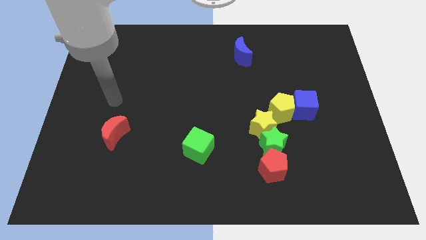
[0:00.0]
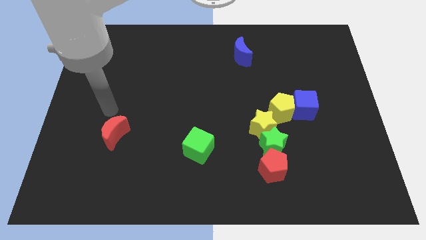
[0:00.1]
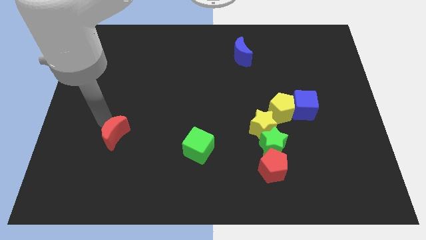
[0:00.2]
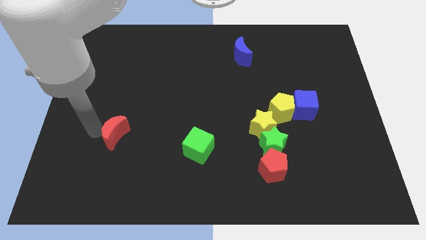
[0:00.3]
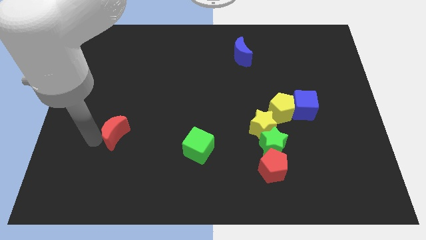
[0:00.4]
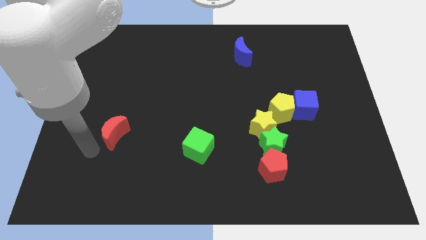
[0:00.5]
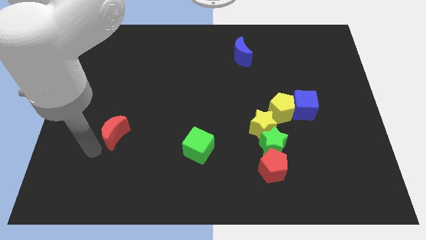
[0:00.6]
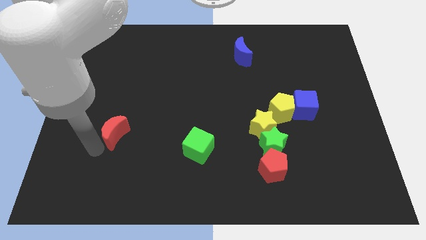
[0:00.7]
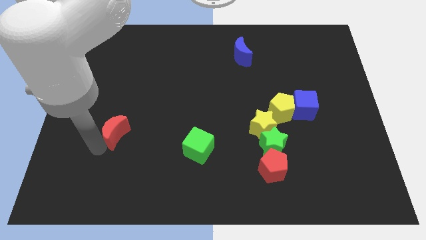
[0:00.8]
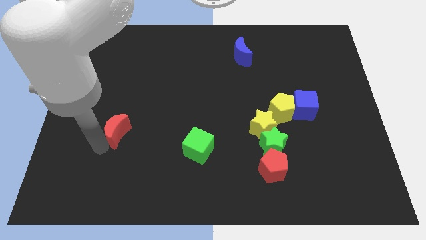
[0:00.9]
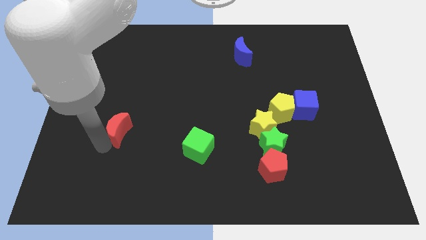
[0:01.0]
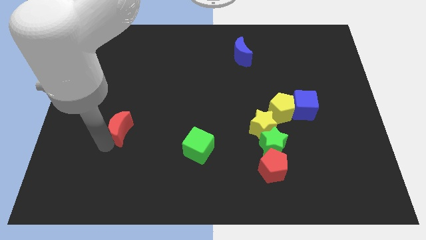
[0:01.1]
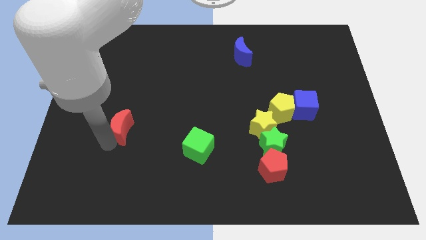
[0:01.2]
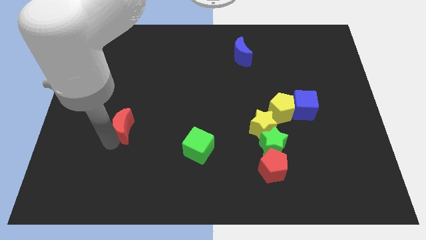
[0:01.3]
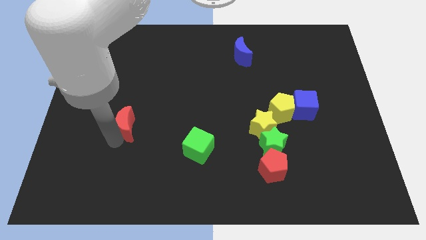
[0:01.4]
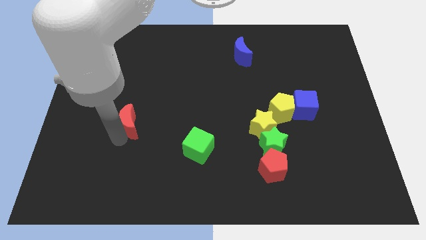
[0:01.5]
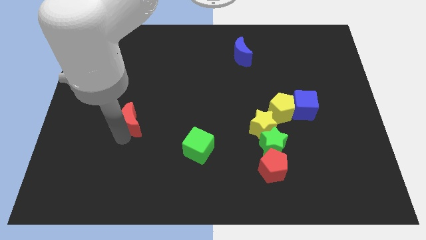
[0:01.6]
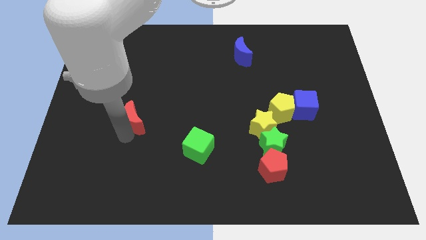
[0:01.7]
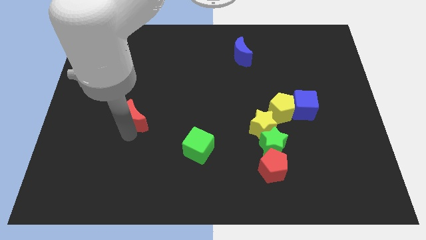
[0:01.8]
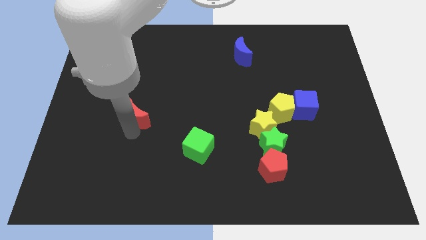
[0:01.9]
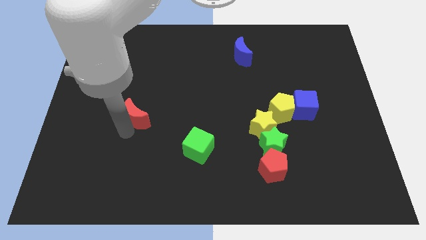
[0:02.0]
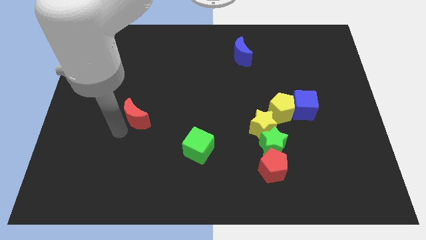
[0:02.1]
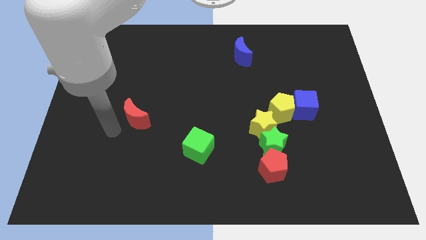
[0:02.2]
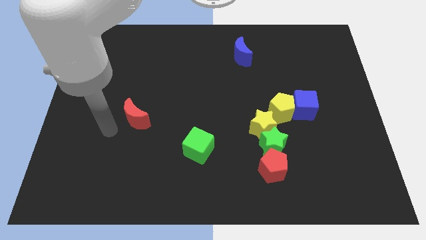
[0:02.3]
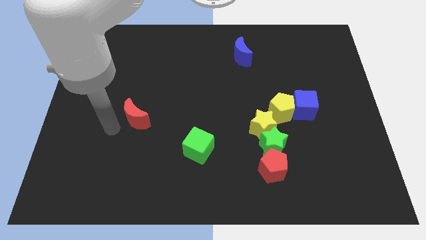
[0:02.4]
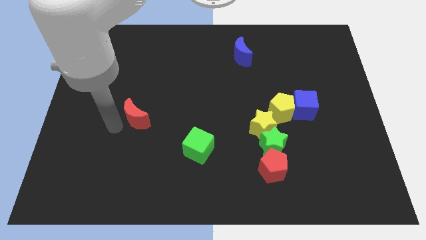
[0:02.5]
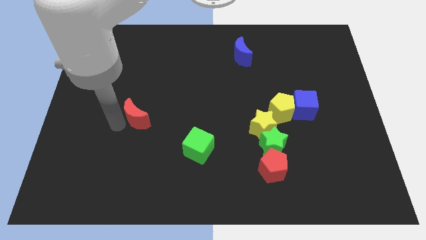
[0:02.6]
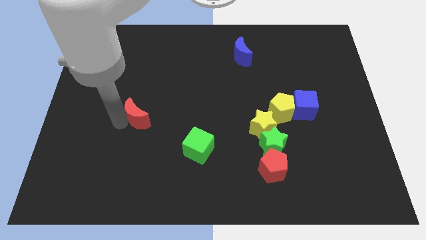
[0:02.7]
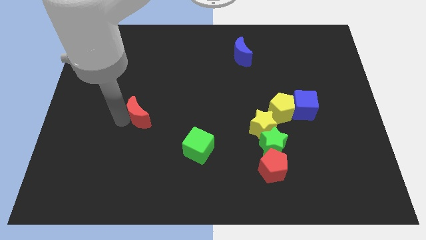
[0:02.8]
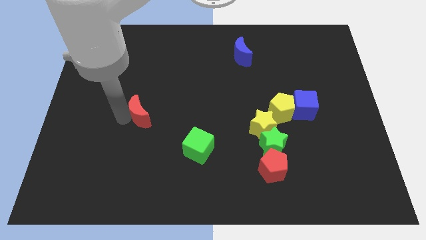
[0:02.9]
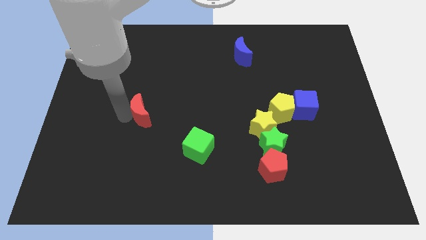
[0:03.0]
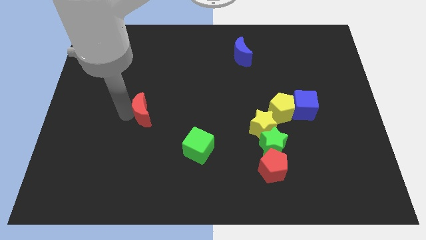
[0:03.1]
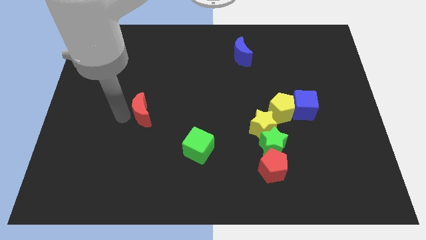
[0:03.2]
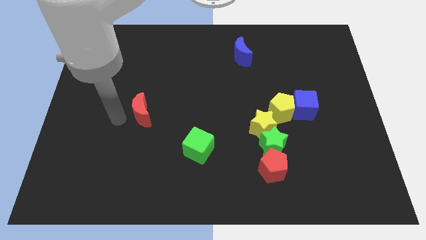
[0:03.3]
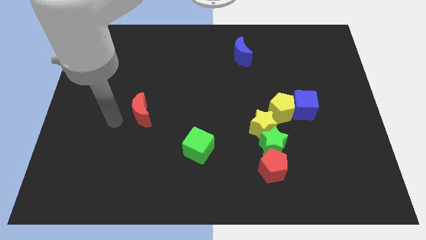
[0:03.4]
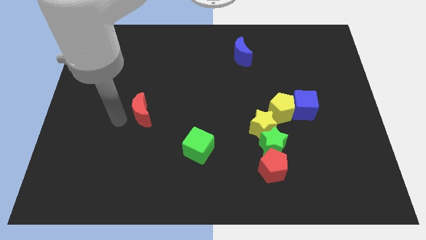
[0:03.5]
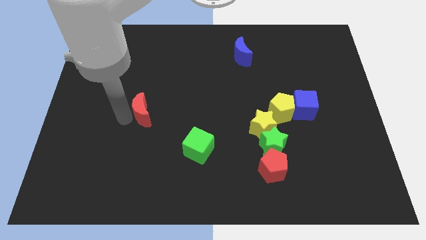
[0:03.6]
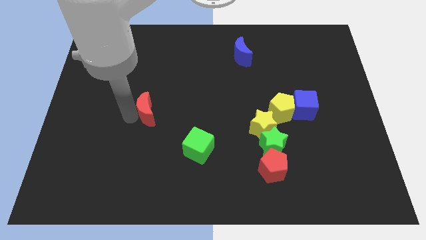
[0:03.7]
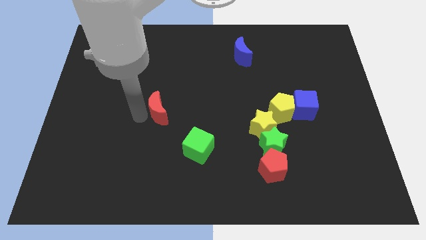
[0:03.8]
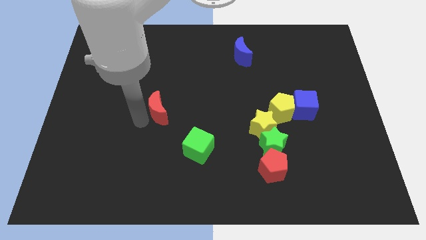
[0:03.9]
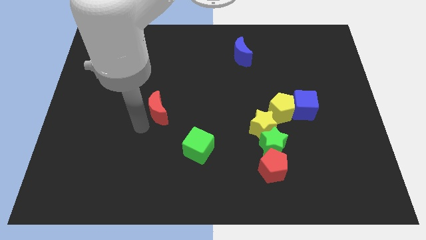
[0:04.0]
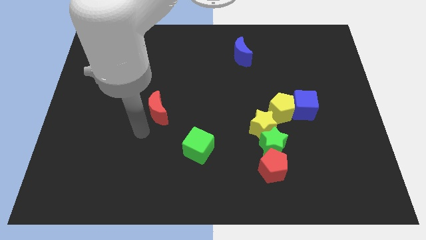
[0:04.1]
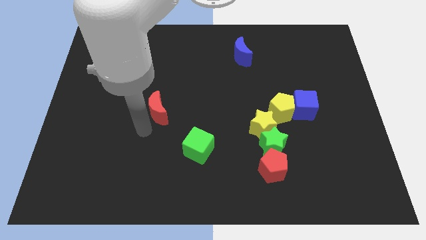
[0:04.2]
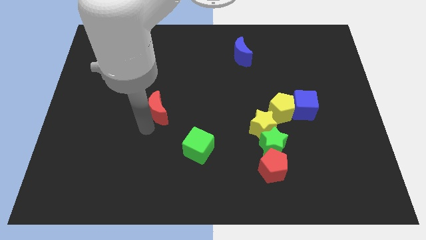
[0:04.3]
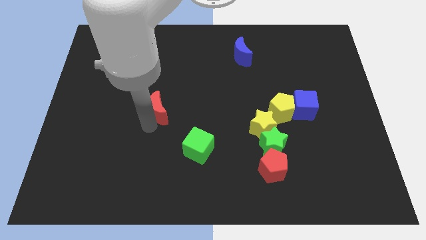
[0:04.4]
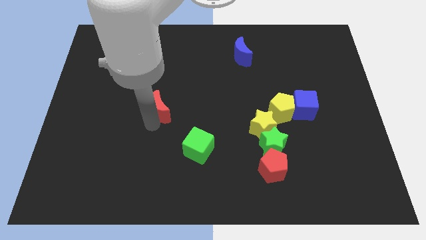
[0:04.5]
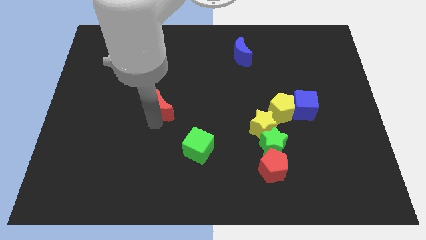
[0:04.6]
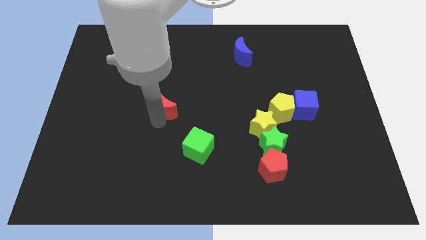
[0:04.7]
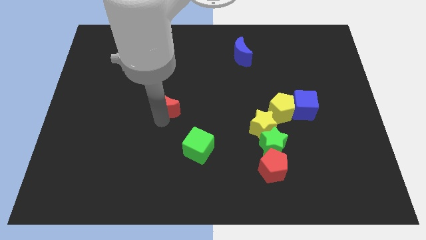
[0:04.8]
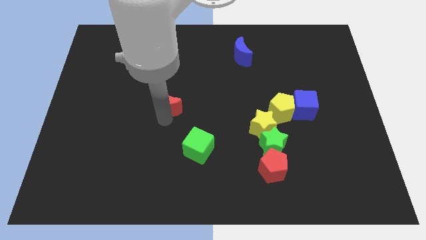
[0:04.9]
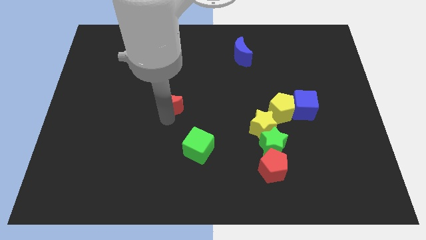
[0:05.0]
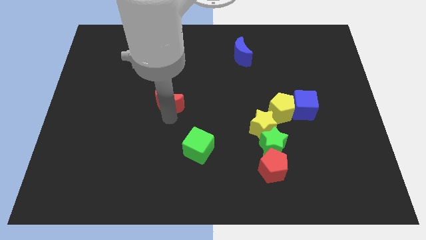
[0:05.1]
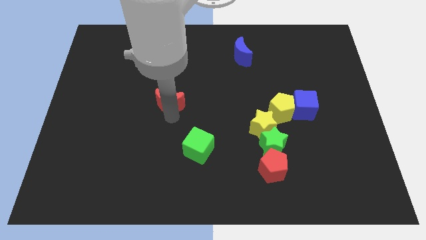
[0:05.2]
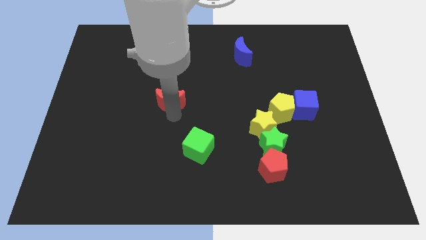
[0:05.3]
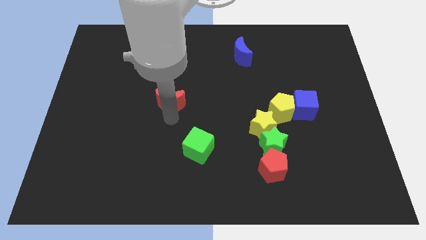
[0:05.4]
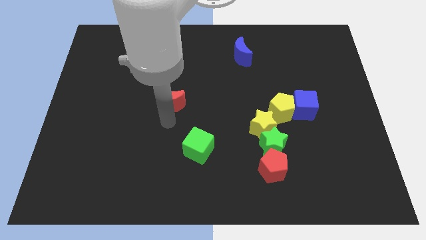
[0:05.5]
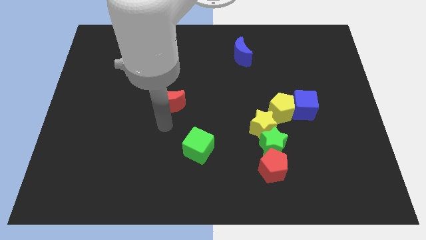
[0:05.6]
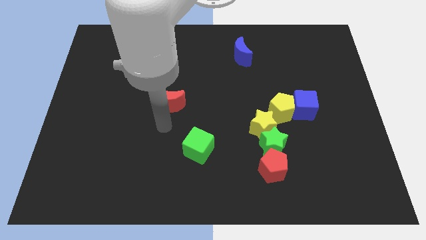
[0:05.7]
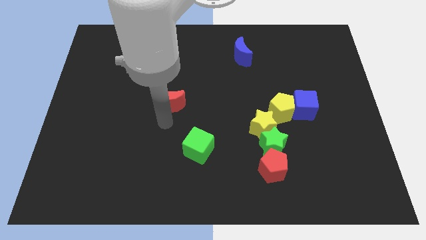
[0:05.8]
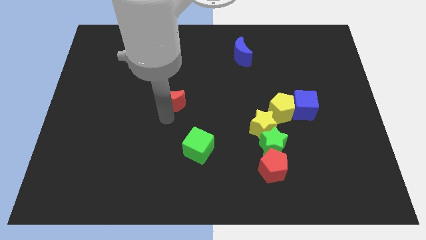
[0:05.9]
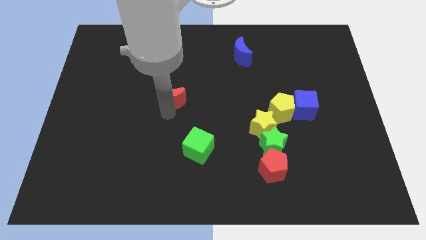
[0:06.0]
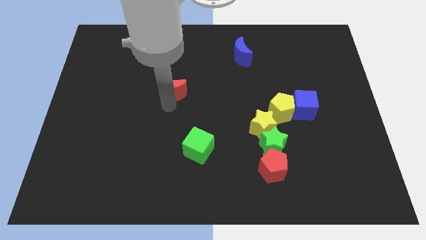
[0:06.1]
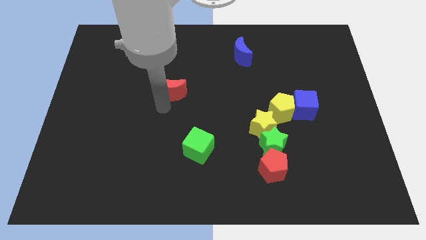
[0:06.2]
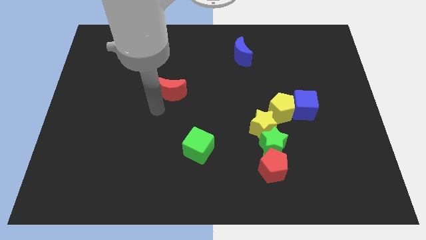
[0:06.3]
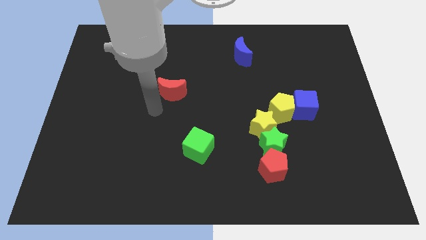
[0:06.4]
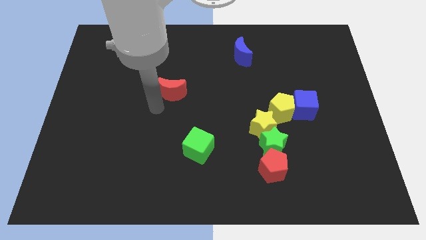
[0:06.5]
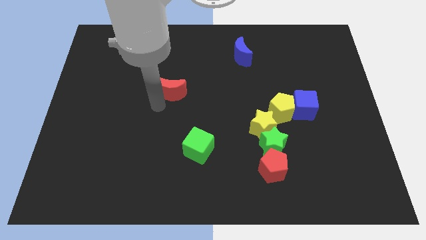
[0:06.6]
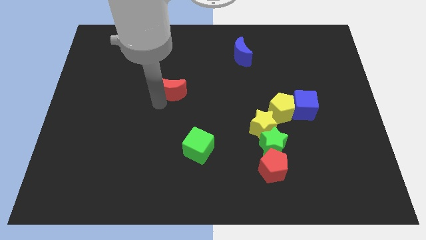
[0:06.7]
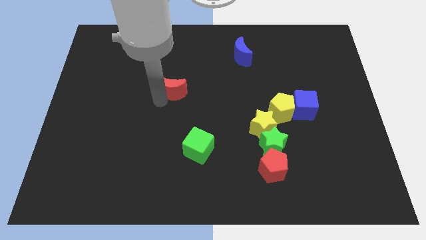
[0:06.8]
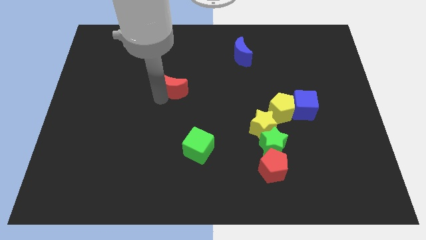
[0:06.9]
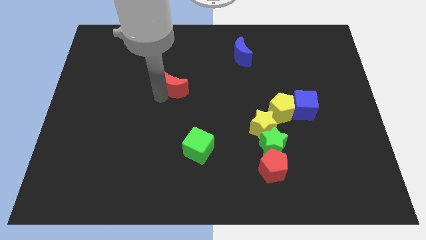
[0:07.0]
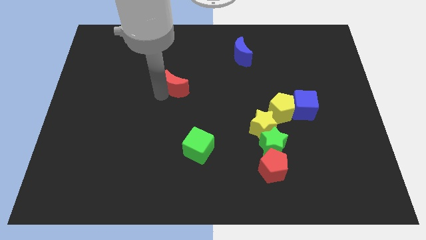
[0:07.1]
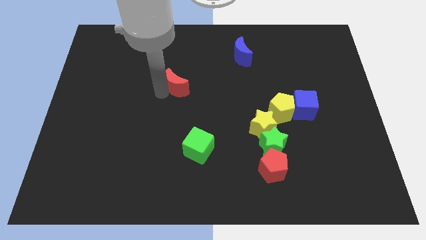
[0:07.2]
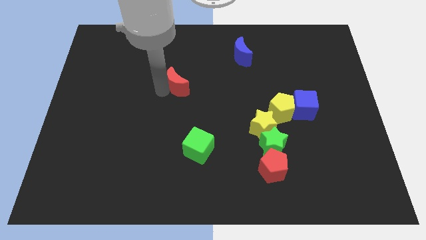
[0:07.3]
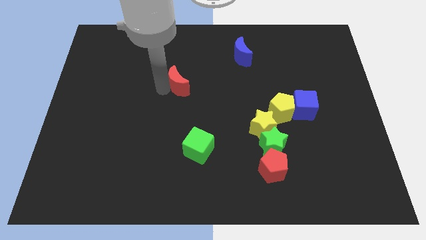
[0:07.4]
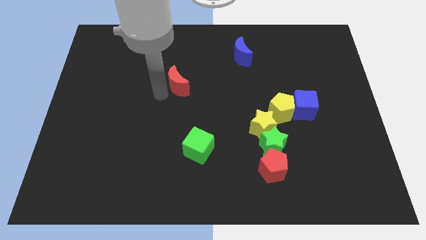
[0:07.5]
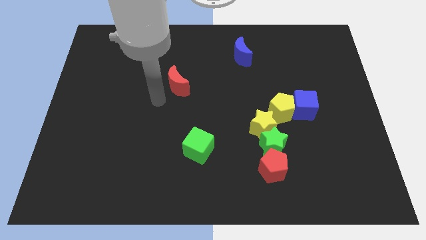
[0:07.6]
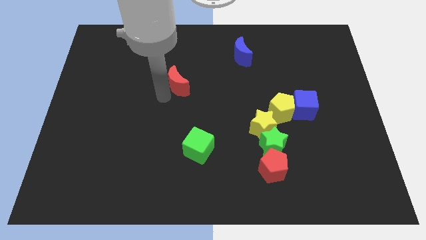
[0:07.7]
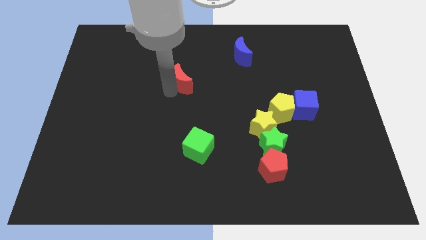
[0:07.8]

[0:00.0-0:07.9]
push the red moon upwards and then to the right
